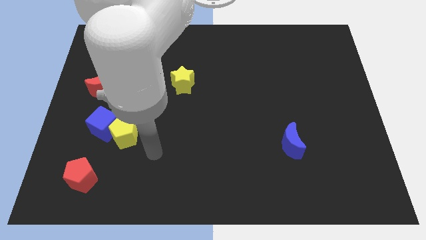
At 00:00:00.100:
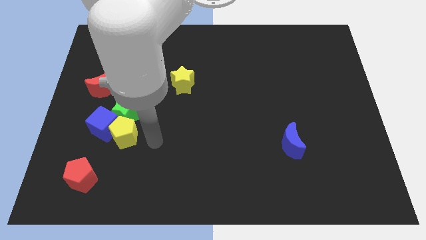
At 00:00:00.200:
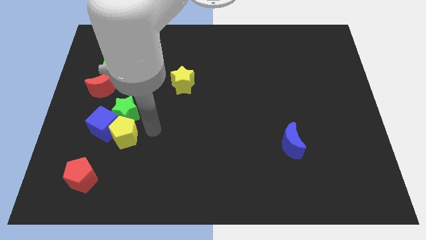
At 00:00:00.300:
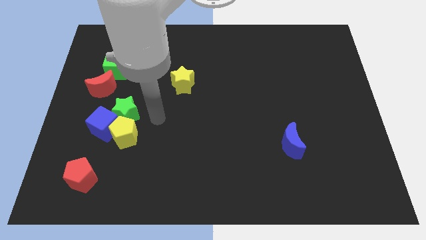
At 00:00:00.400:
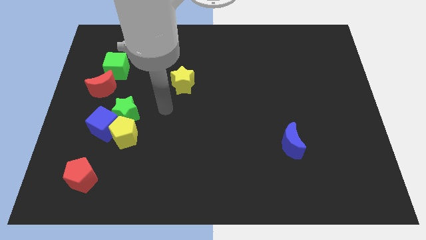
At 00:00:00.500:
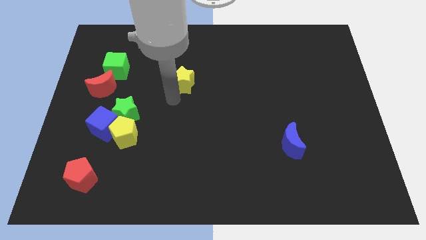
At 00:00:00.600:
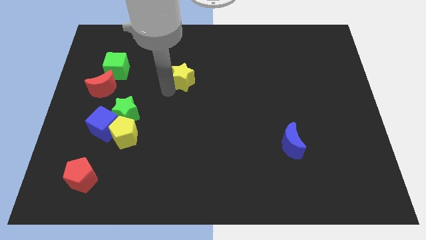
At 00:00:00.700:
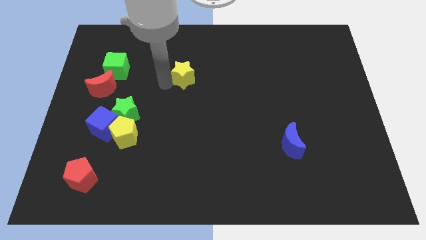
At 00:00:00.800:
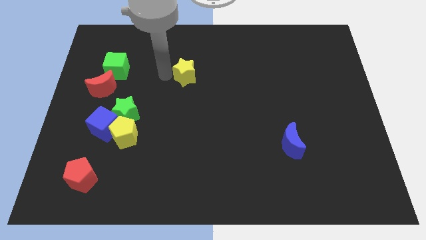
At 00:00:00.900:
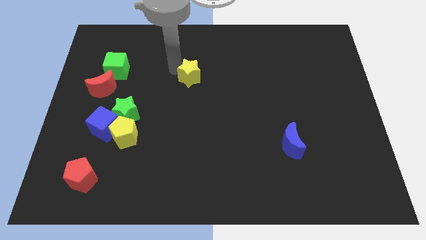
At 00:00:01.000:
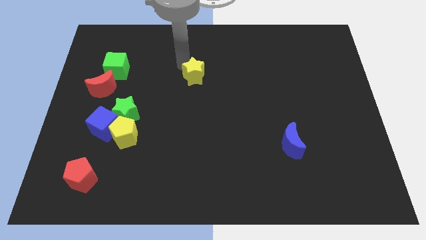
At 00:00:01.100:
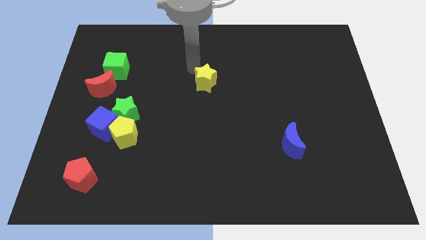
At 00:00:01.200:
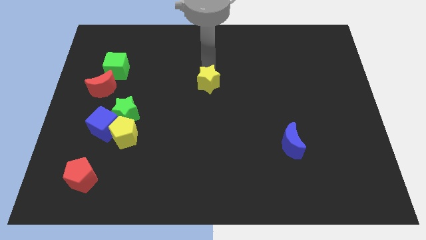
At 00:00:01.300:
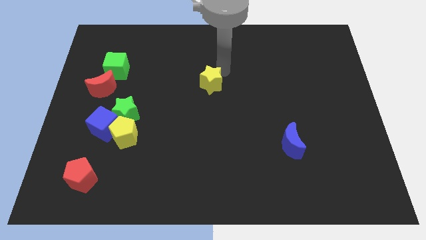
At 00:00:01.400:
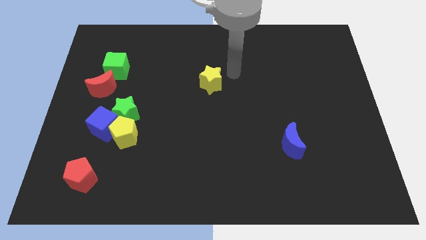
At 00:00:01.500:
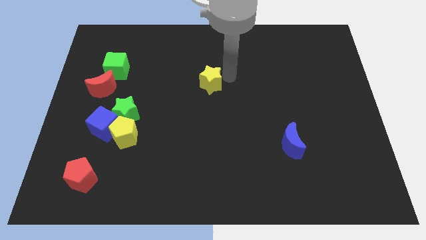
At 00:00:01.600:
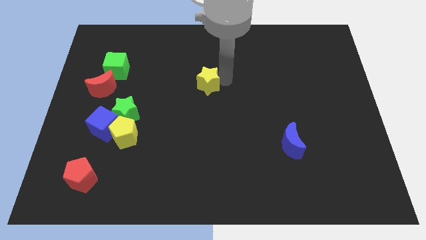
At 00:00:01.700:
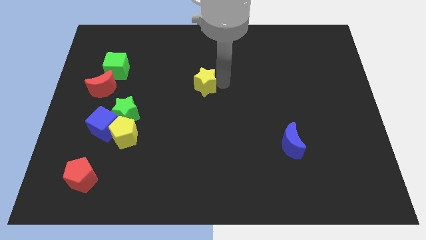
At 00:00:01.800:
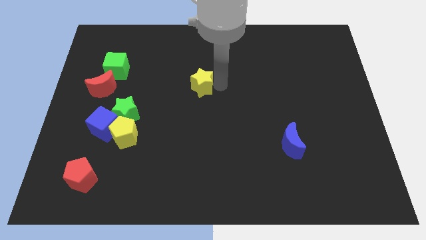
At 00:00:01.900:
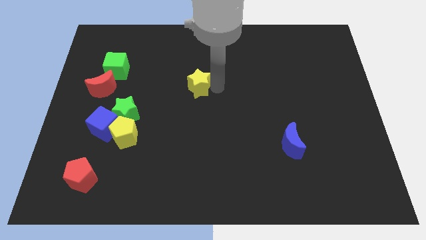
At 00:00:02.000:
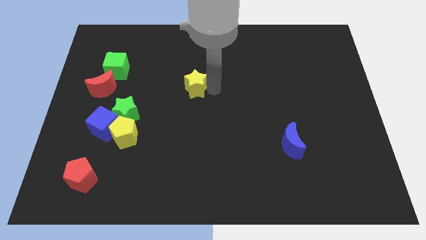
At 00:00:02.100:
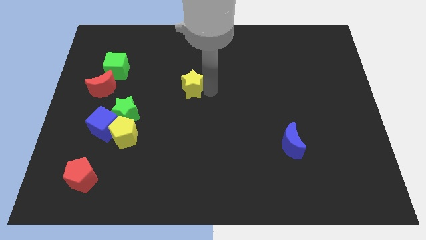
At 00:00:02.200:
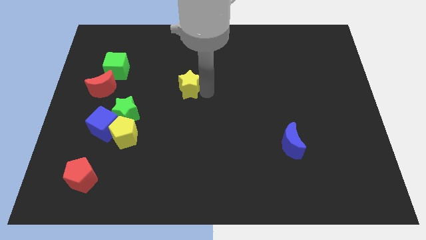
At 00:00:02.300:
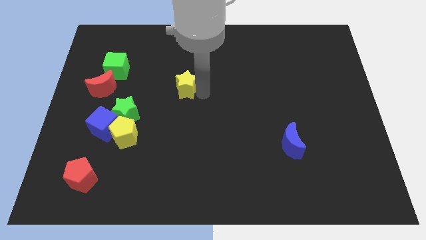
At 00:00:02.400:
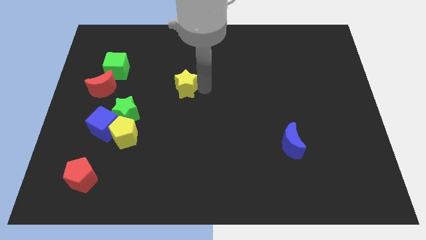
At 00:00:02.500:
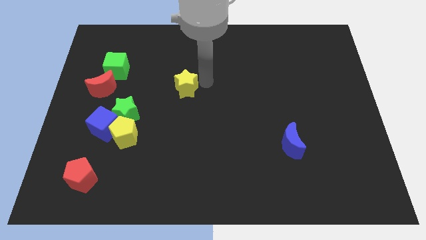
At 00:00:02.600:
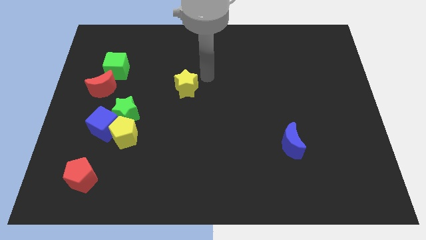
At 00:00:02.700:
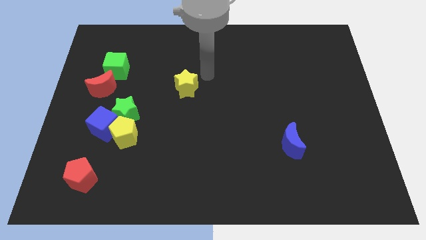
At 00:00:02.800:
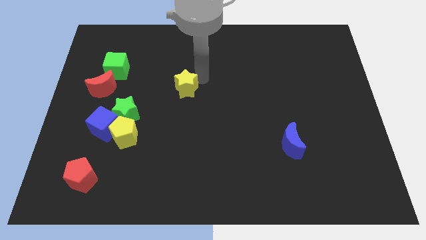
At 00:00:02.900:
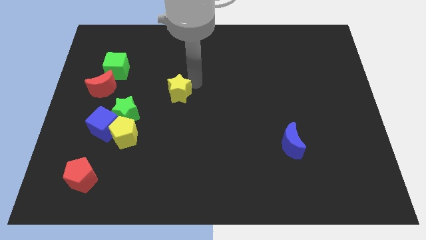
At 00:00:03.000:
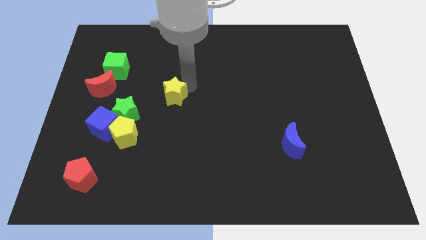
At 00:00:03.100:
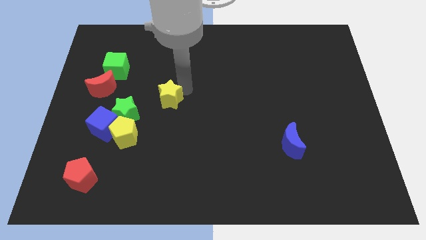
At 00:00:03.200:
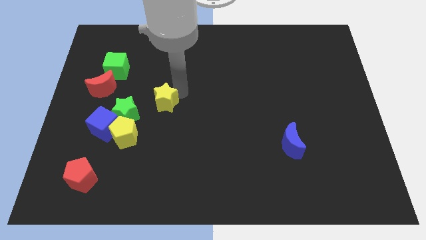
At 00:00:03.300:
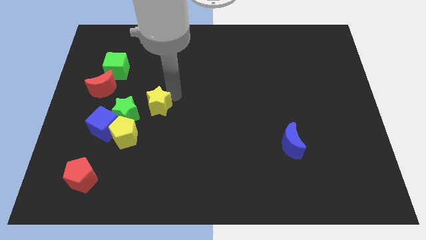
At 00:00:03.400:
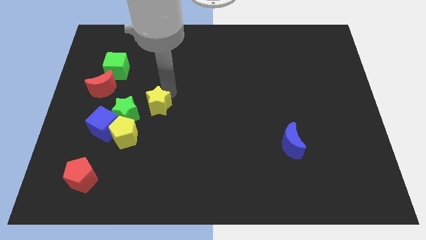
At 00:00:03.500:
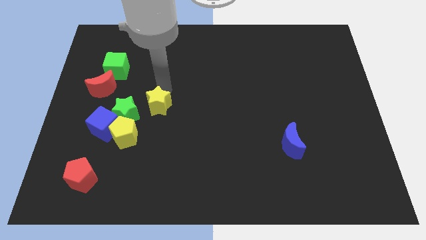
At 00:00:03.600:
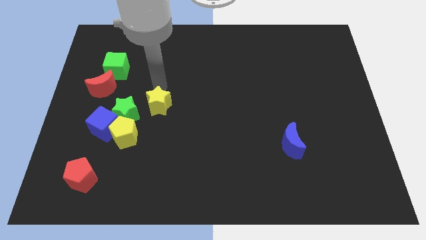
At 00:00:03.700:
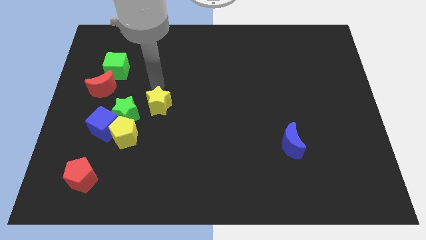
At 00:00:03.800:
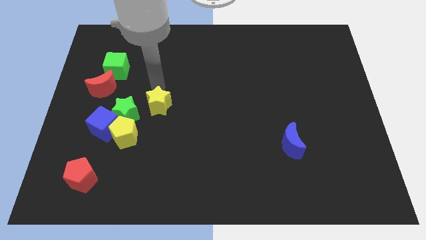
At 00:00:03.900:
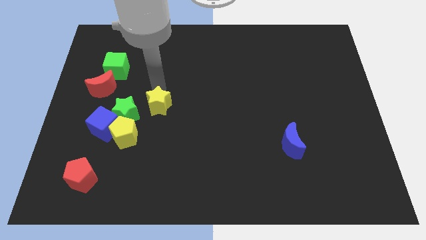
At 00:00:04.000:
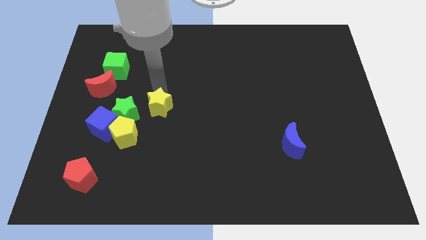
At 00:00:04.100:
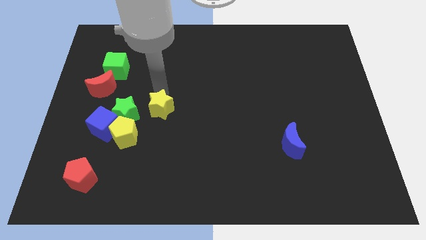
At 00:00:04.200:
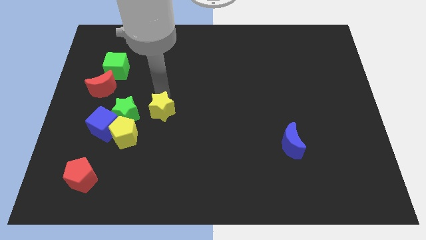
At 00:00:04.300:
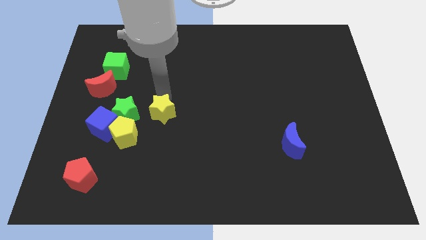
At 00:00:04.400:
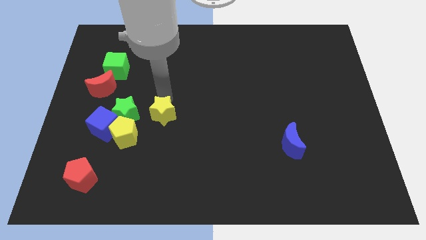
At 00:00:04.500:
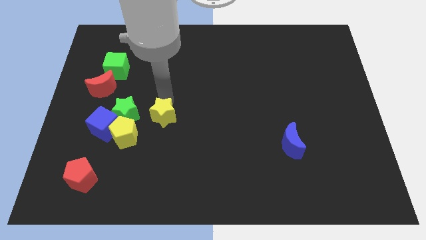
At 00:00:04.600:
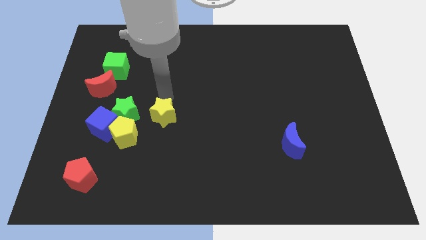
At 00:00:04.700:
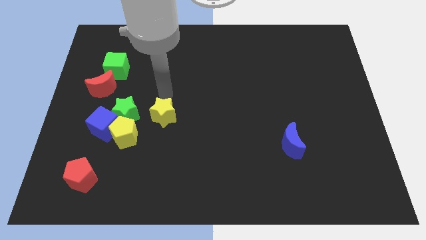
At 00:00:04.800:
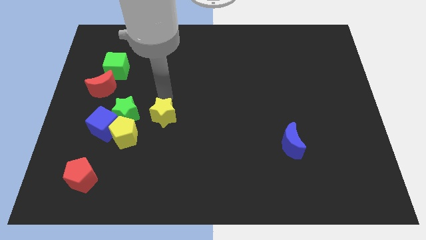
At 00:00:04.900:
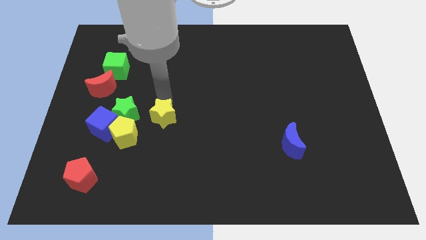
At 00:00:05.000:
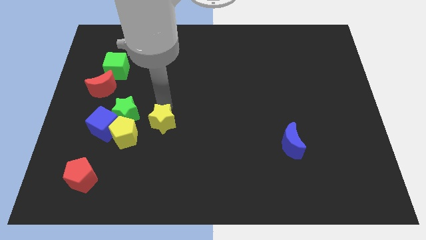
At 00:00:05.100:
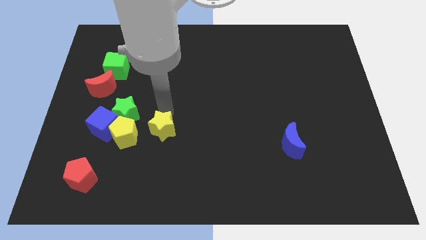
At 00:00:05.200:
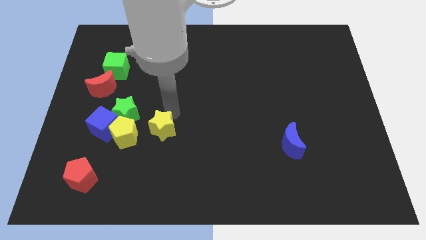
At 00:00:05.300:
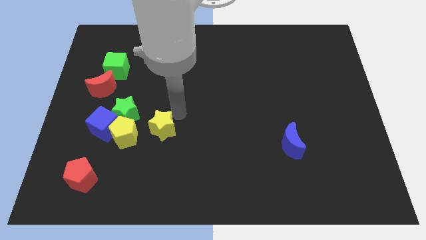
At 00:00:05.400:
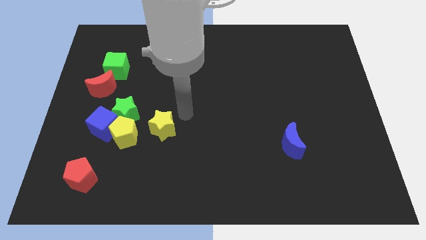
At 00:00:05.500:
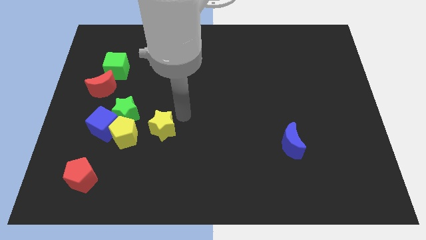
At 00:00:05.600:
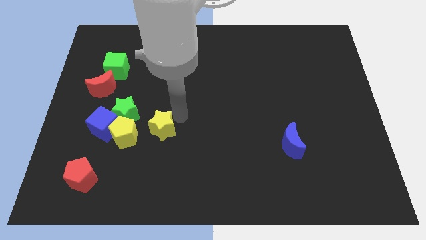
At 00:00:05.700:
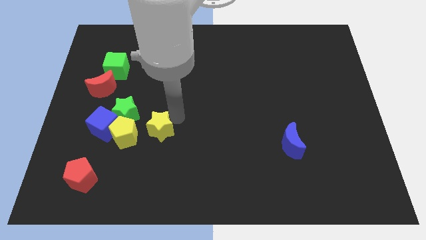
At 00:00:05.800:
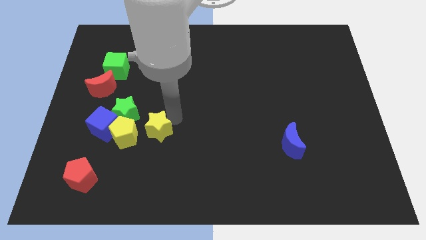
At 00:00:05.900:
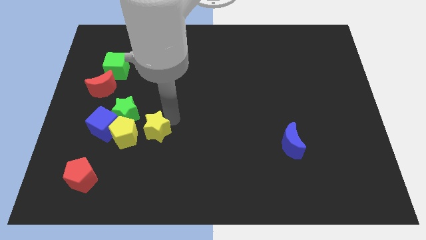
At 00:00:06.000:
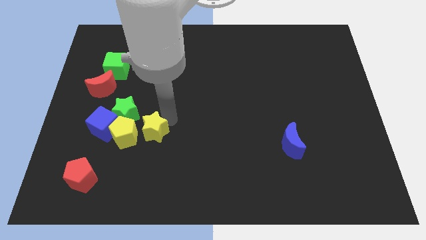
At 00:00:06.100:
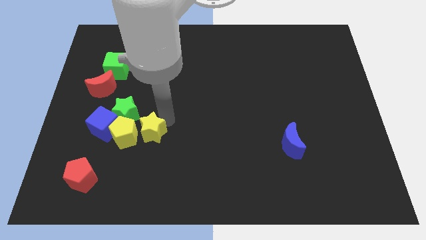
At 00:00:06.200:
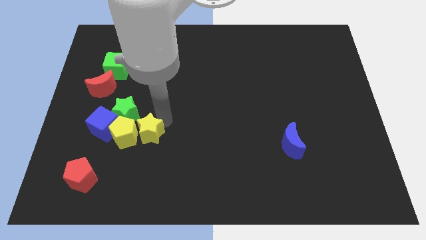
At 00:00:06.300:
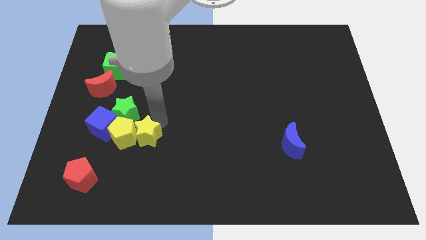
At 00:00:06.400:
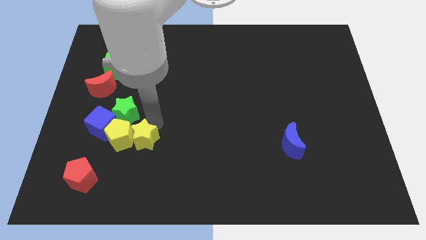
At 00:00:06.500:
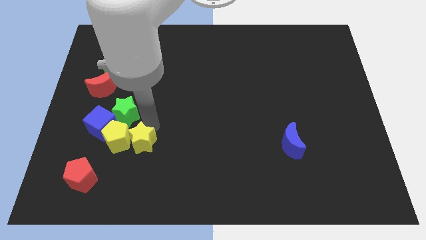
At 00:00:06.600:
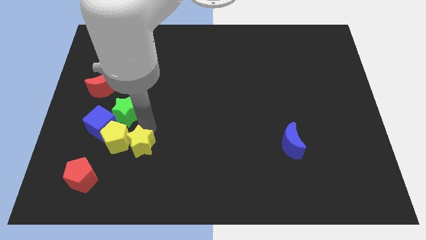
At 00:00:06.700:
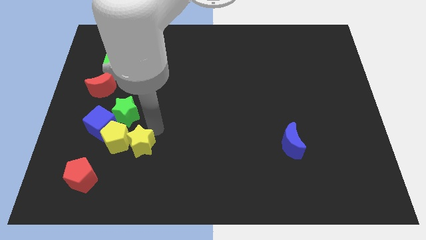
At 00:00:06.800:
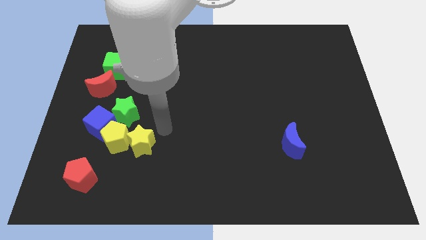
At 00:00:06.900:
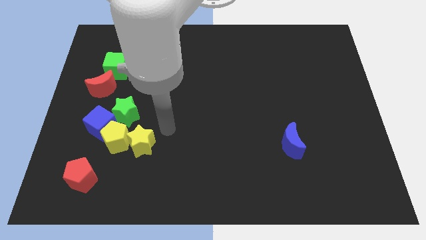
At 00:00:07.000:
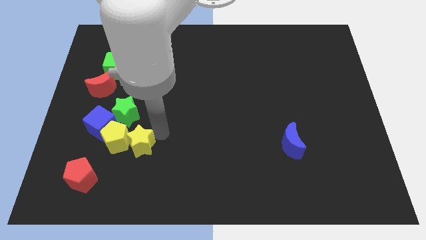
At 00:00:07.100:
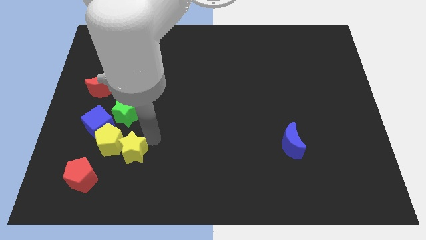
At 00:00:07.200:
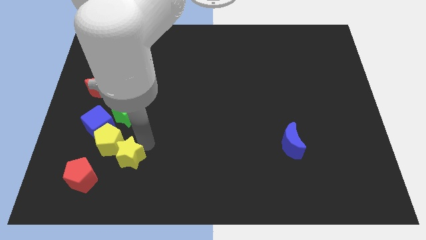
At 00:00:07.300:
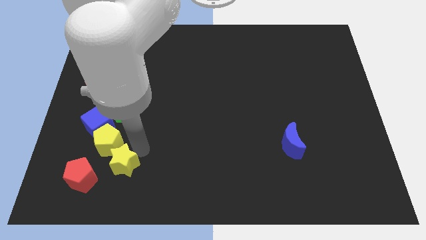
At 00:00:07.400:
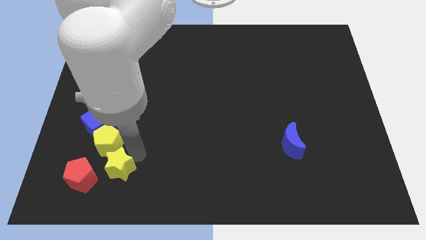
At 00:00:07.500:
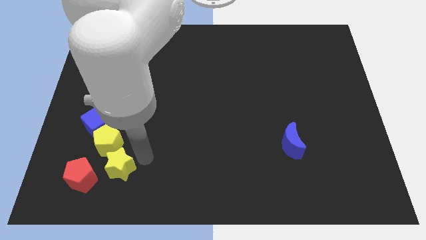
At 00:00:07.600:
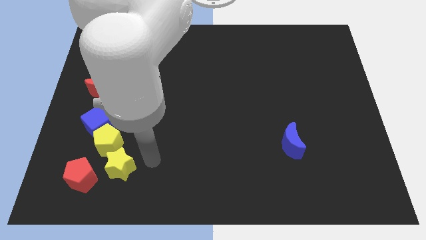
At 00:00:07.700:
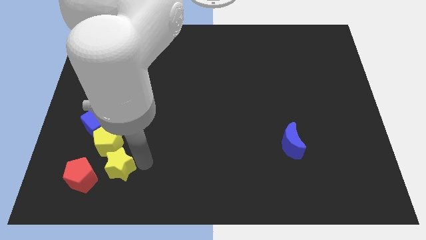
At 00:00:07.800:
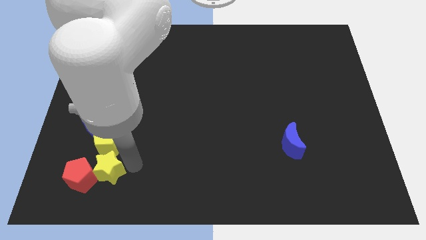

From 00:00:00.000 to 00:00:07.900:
put the yellow star next to the red pentagon
